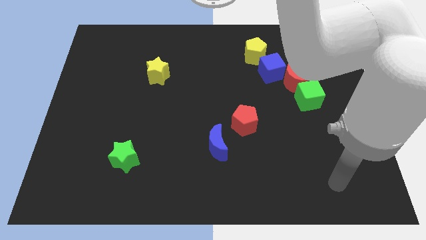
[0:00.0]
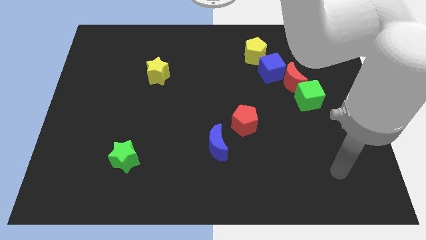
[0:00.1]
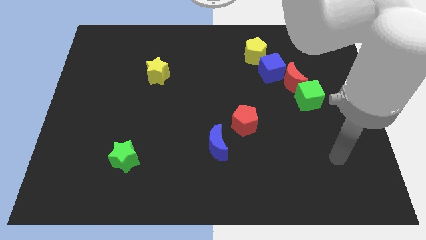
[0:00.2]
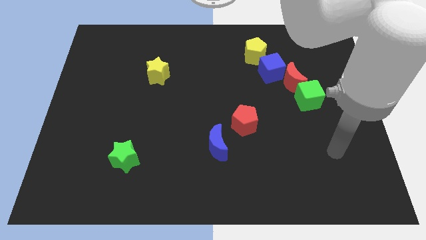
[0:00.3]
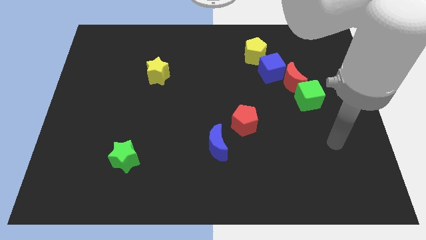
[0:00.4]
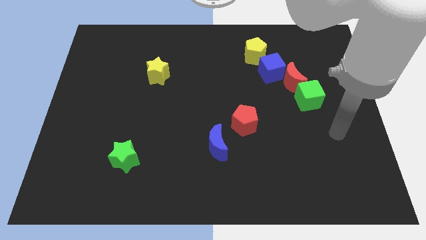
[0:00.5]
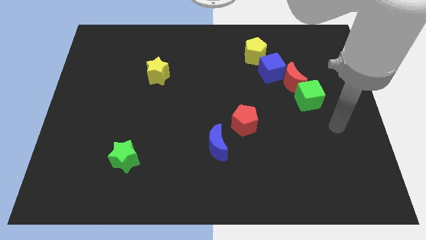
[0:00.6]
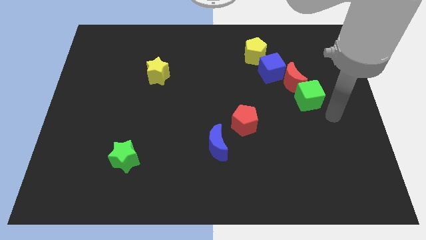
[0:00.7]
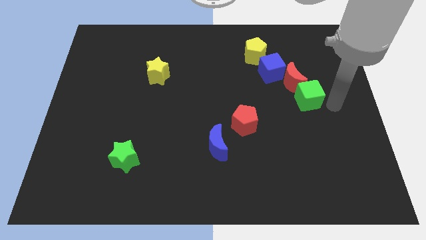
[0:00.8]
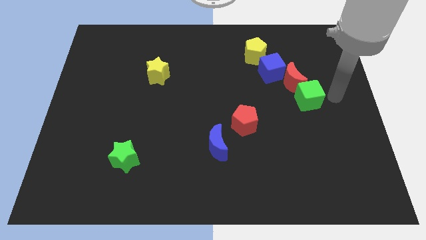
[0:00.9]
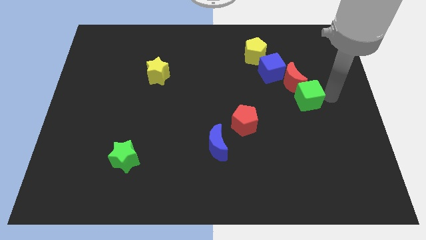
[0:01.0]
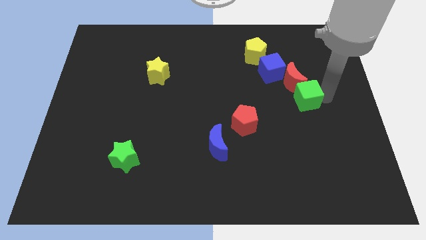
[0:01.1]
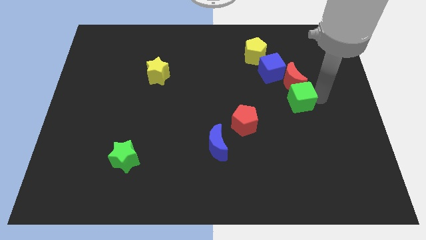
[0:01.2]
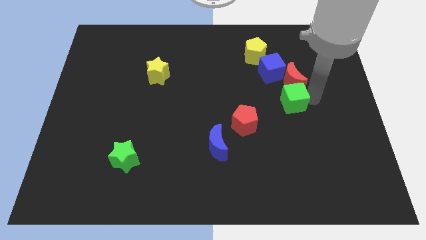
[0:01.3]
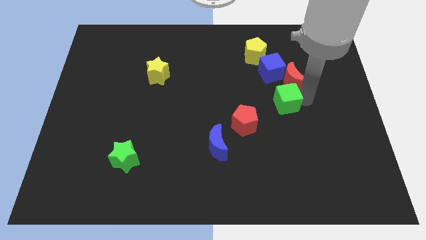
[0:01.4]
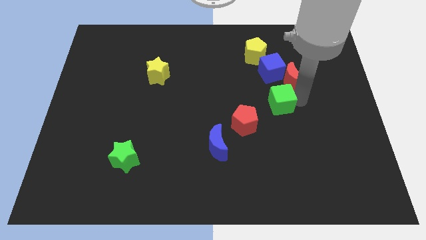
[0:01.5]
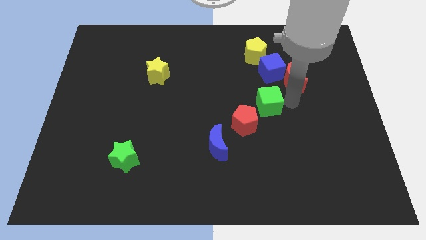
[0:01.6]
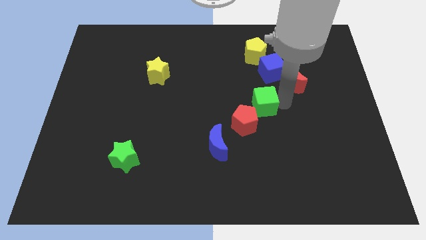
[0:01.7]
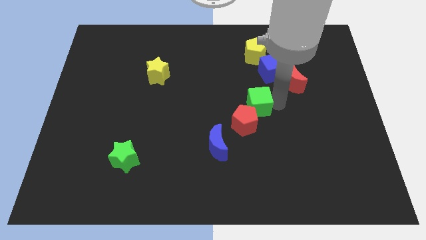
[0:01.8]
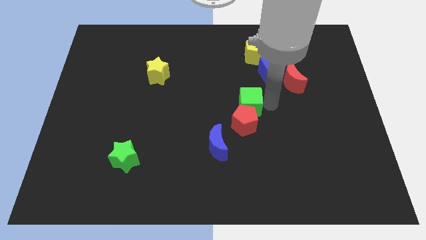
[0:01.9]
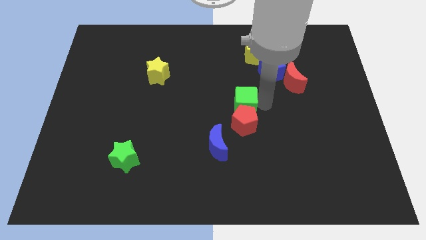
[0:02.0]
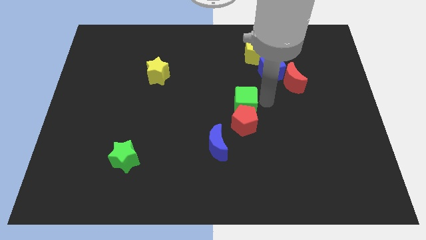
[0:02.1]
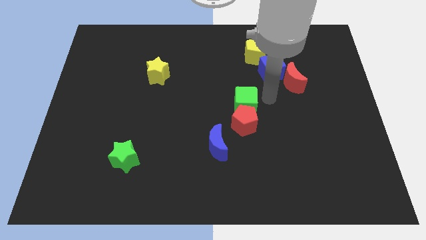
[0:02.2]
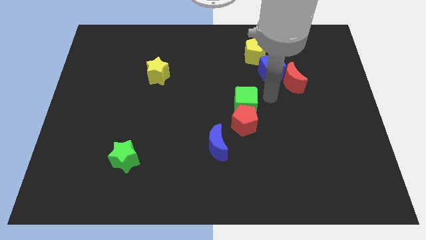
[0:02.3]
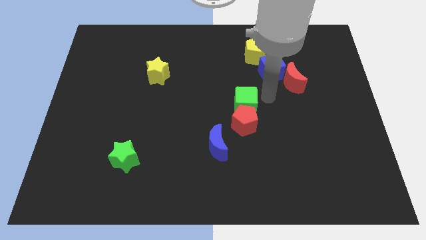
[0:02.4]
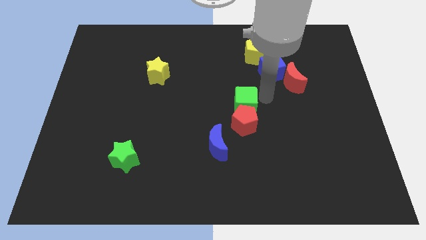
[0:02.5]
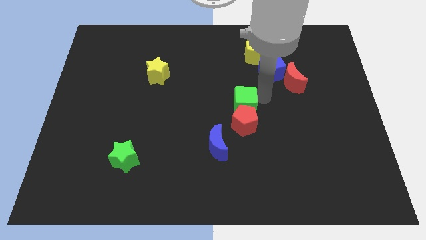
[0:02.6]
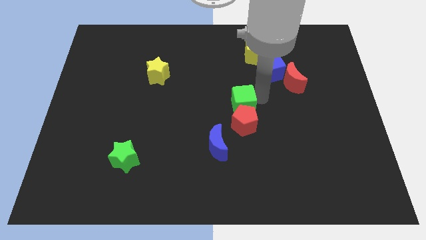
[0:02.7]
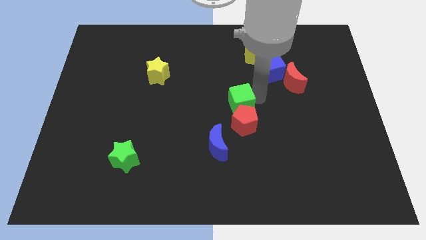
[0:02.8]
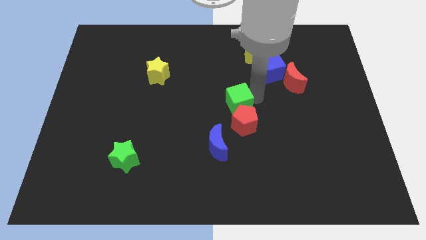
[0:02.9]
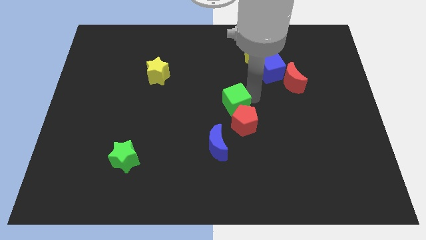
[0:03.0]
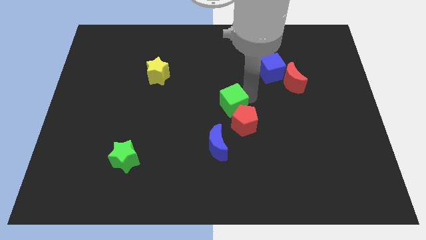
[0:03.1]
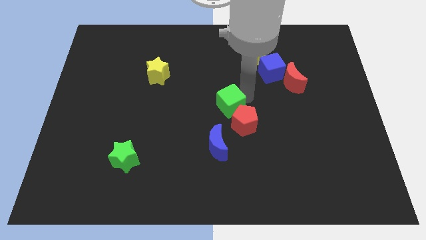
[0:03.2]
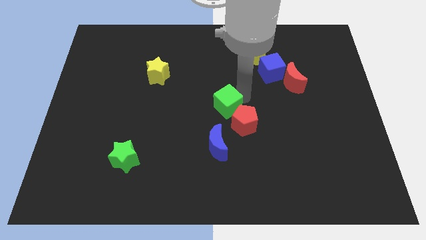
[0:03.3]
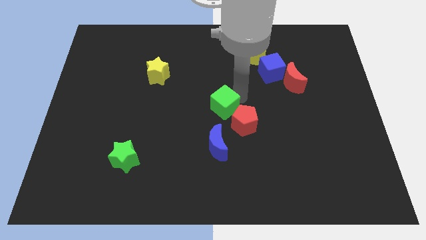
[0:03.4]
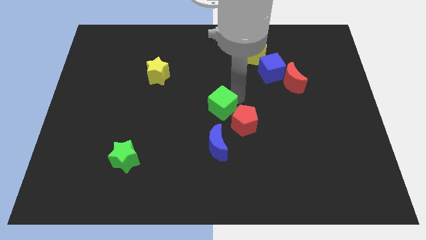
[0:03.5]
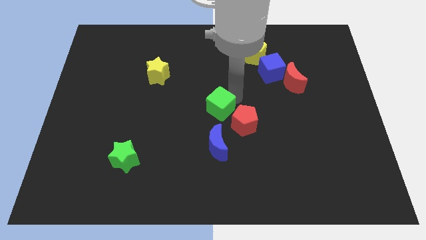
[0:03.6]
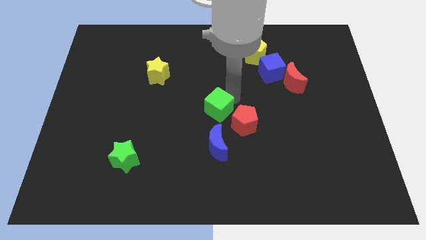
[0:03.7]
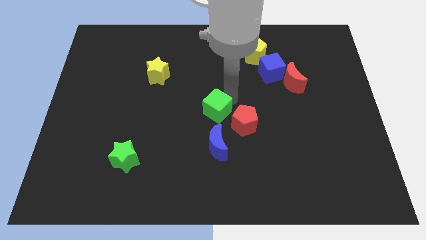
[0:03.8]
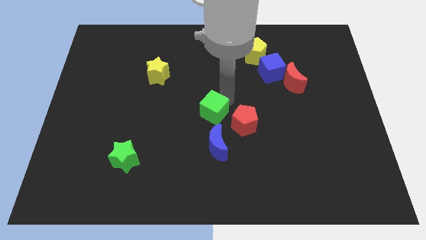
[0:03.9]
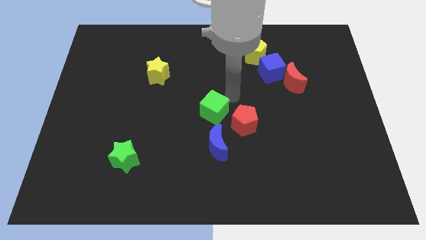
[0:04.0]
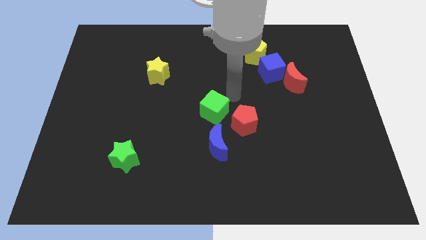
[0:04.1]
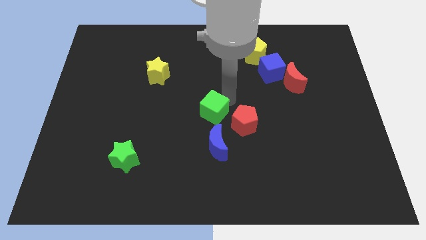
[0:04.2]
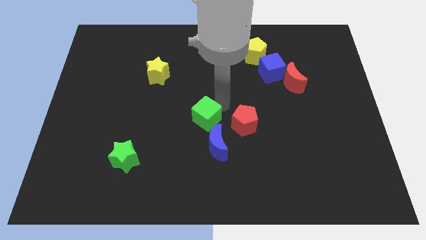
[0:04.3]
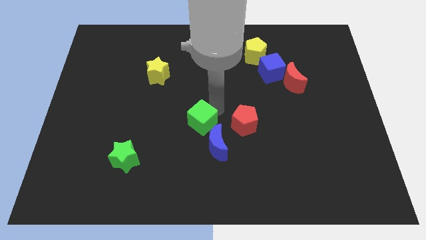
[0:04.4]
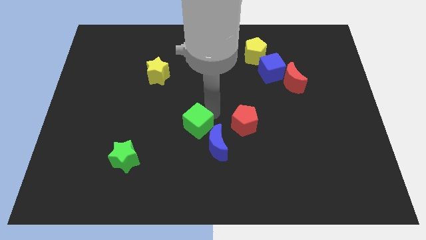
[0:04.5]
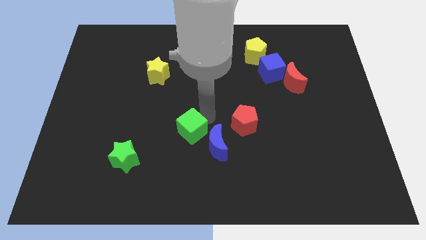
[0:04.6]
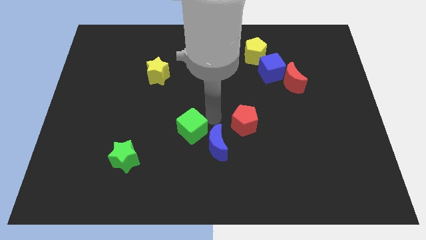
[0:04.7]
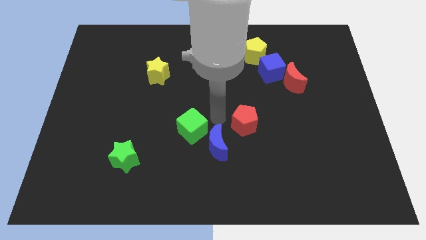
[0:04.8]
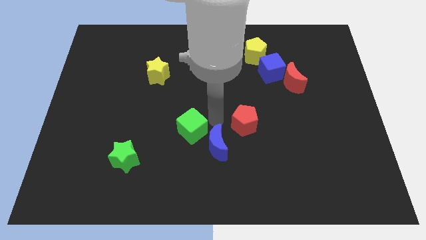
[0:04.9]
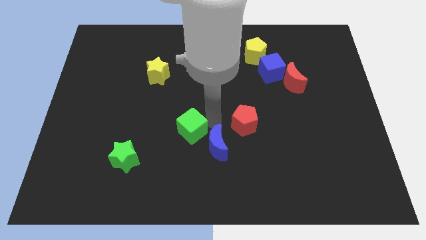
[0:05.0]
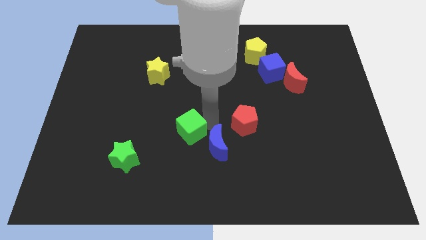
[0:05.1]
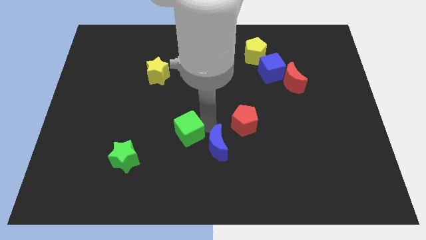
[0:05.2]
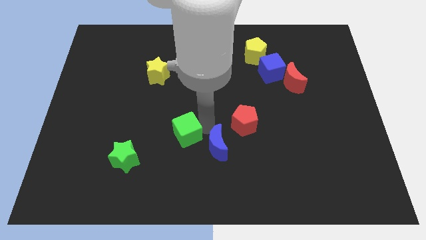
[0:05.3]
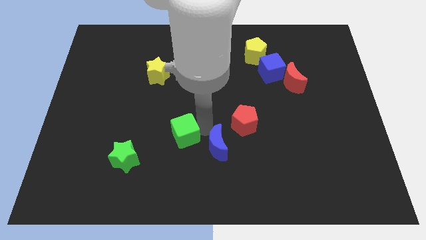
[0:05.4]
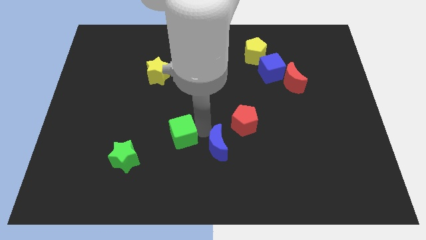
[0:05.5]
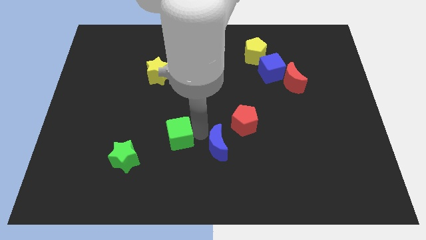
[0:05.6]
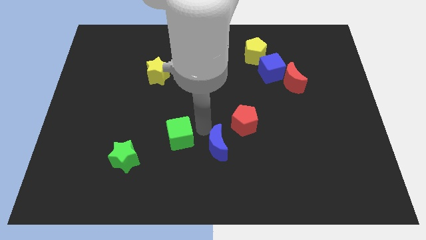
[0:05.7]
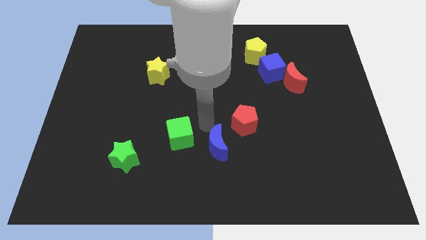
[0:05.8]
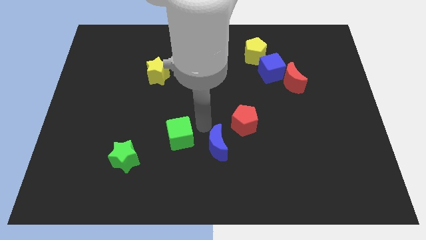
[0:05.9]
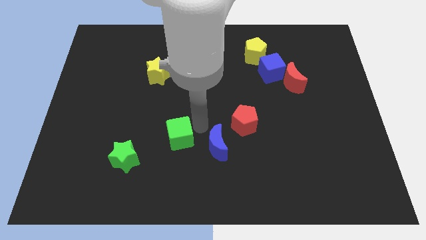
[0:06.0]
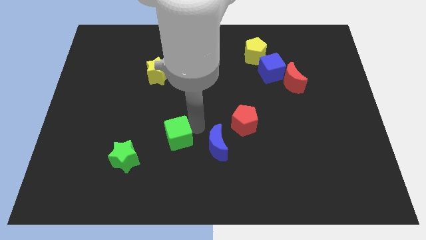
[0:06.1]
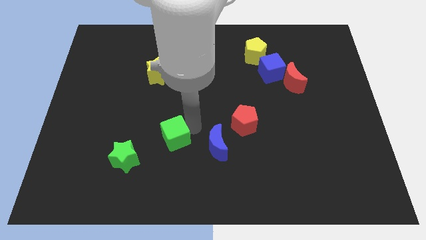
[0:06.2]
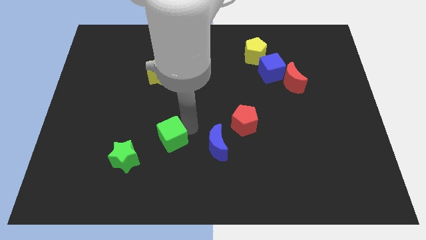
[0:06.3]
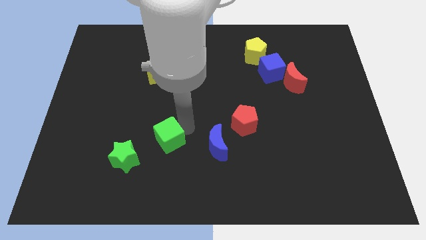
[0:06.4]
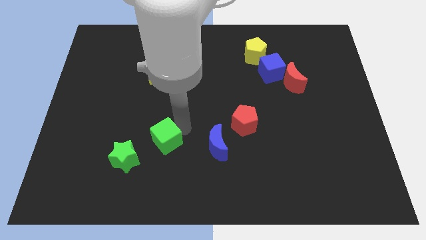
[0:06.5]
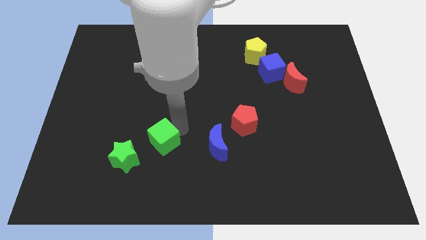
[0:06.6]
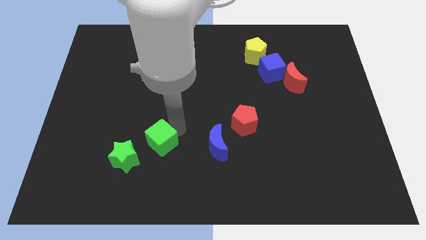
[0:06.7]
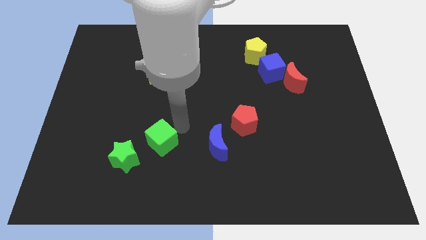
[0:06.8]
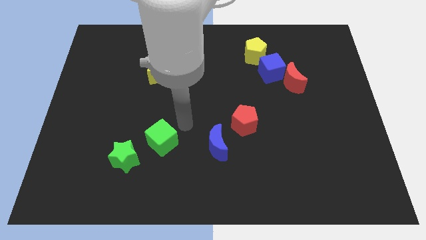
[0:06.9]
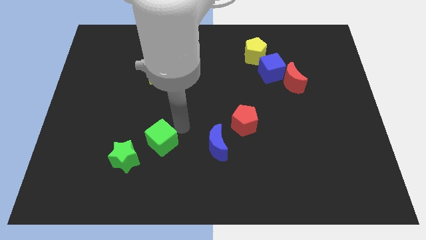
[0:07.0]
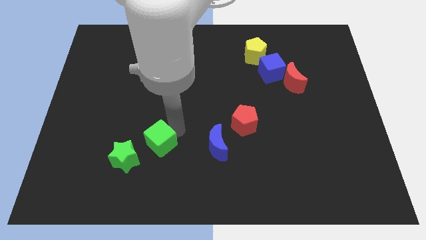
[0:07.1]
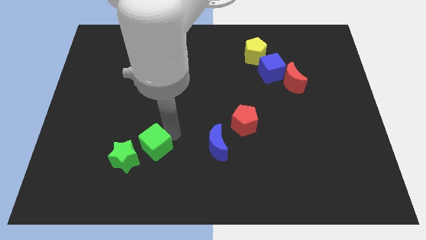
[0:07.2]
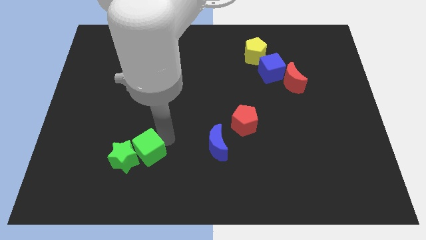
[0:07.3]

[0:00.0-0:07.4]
slide the green cube towards the green star
